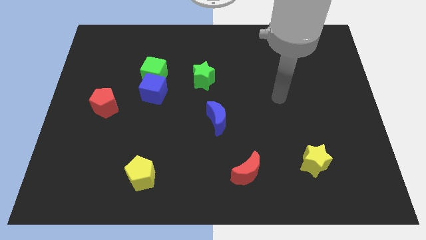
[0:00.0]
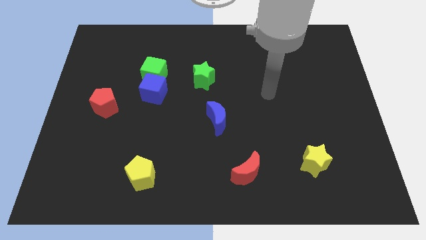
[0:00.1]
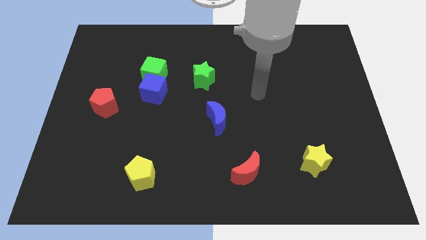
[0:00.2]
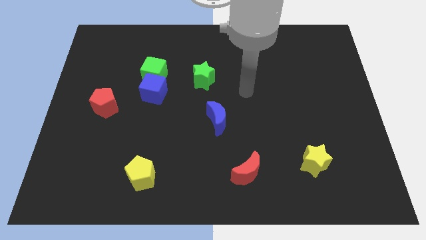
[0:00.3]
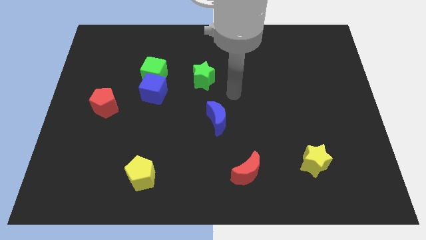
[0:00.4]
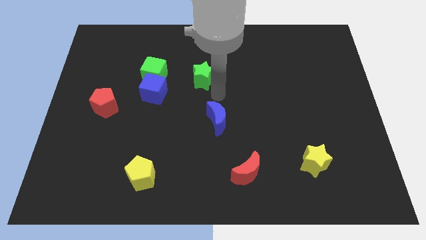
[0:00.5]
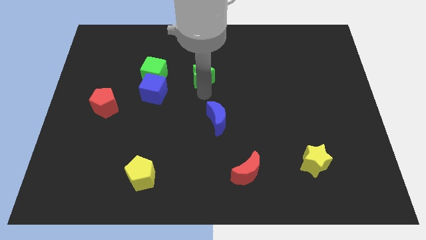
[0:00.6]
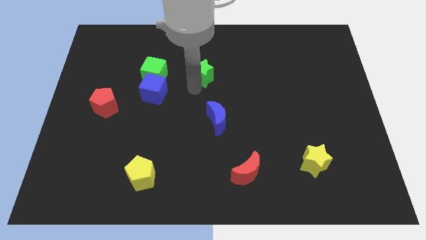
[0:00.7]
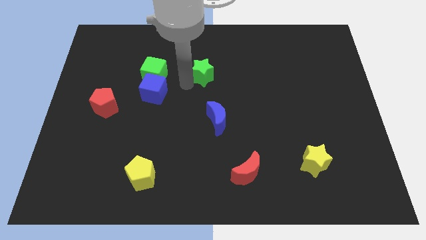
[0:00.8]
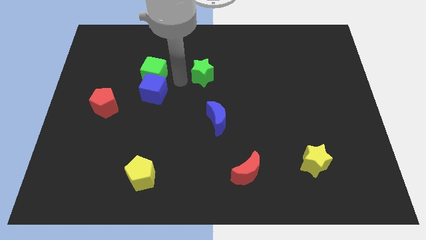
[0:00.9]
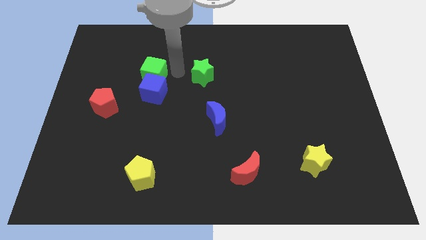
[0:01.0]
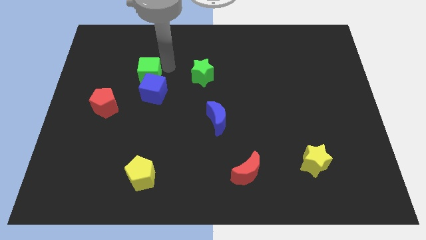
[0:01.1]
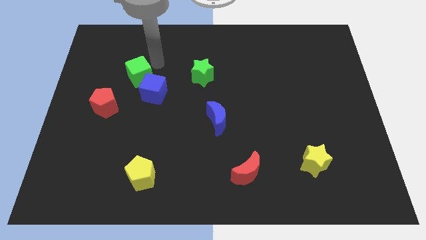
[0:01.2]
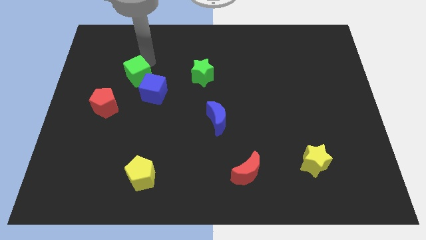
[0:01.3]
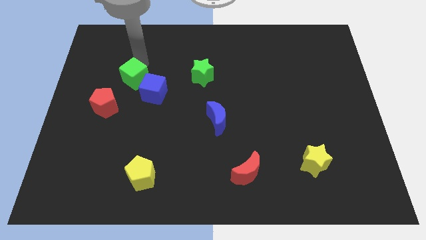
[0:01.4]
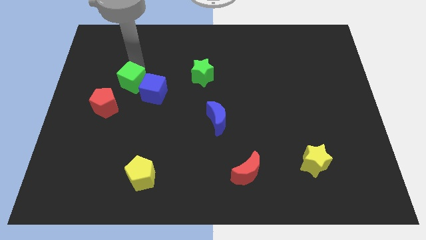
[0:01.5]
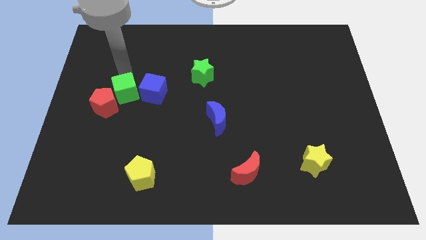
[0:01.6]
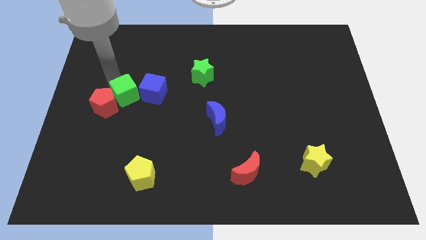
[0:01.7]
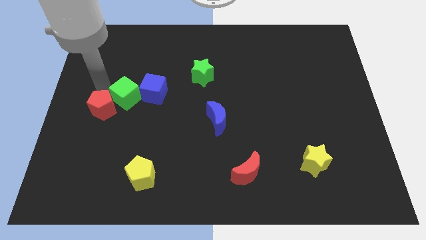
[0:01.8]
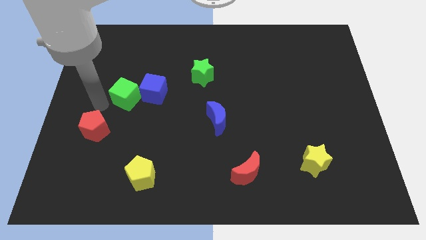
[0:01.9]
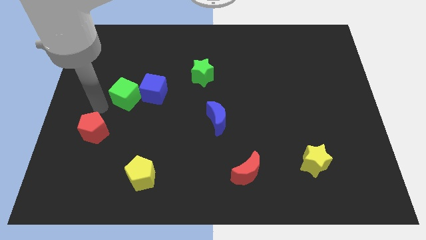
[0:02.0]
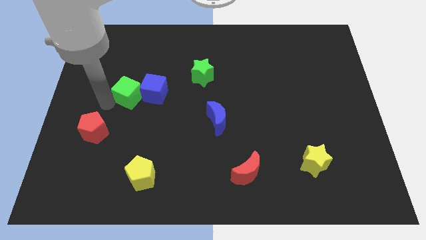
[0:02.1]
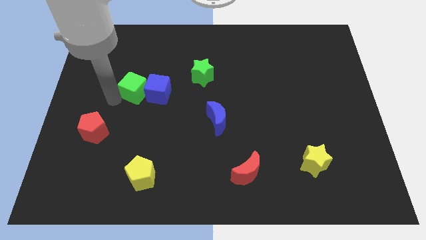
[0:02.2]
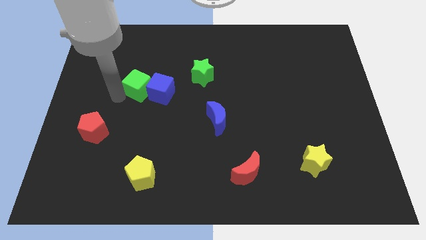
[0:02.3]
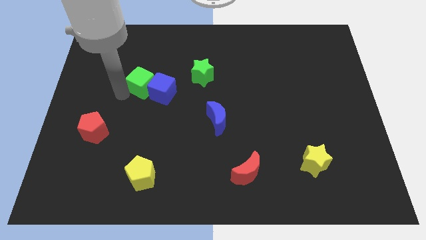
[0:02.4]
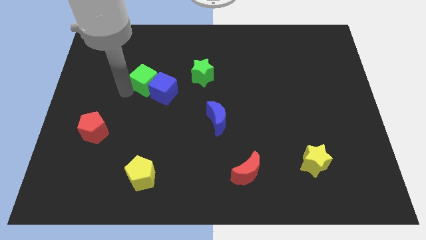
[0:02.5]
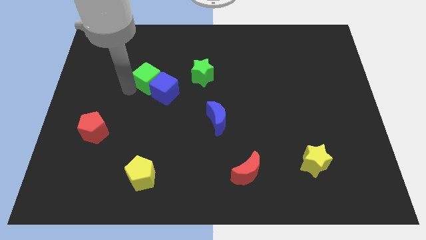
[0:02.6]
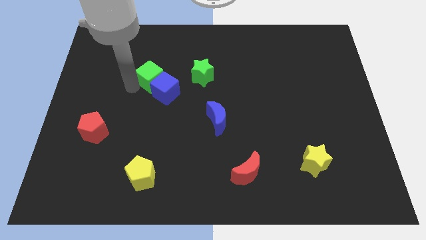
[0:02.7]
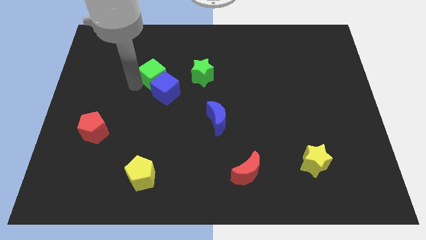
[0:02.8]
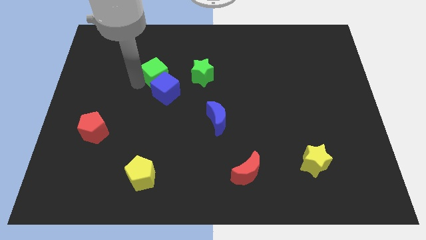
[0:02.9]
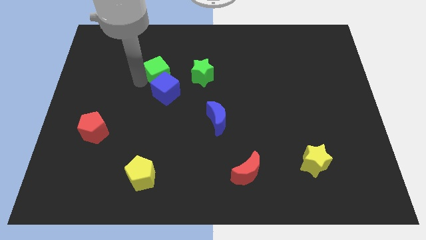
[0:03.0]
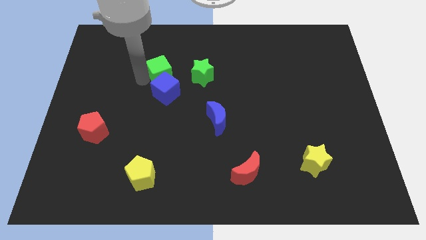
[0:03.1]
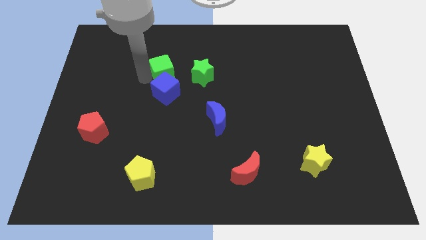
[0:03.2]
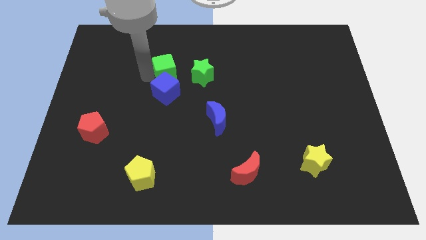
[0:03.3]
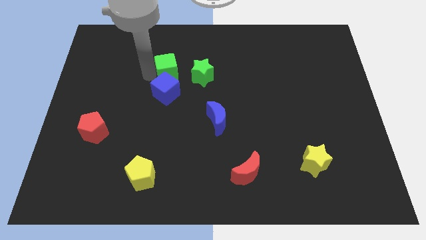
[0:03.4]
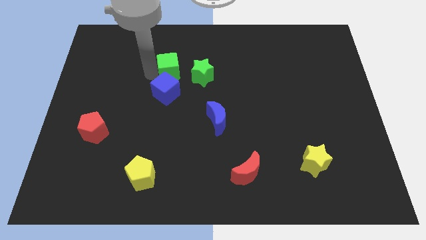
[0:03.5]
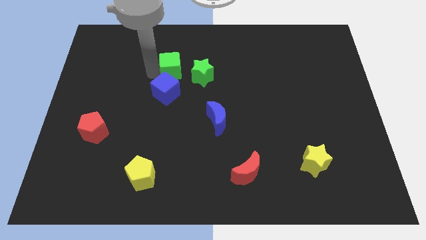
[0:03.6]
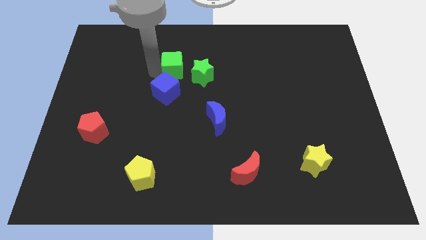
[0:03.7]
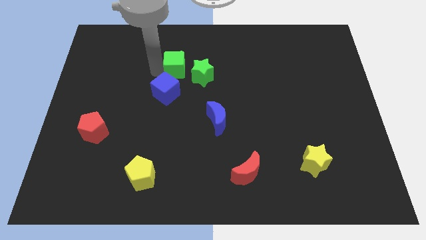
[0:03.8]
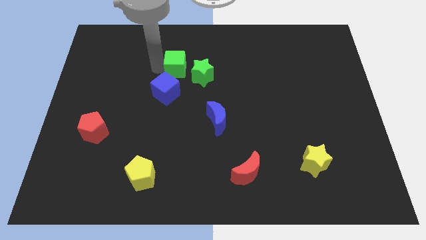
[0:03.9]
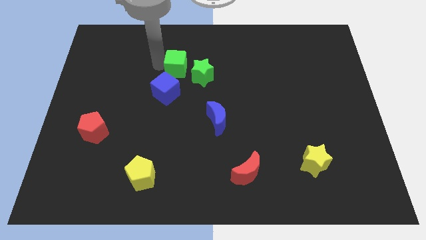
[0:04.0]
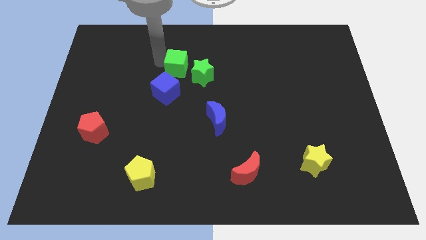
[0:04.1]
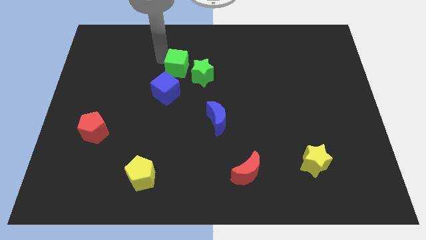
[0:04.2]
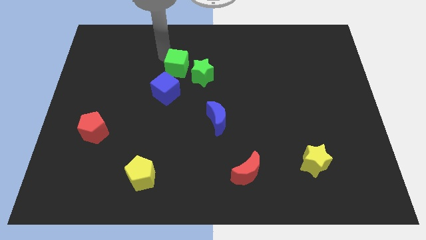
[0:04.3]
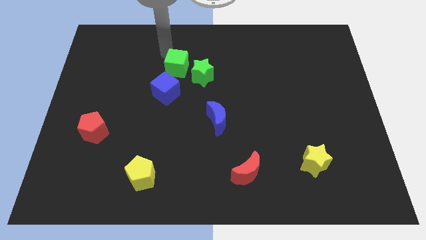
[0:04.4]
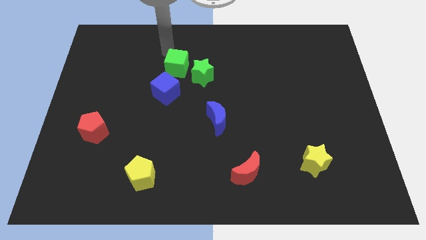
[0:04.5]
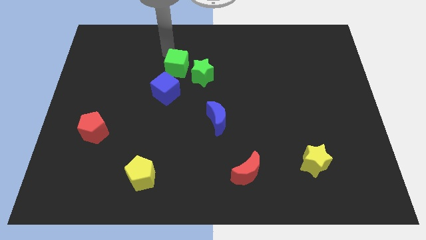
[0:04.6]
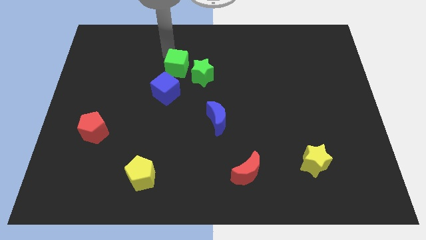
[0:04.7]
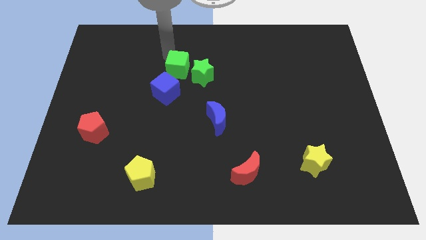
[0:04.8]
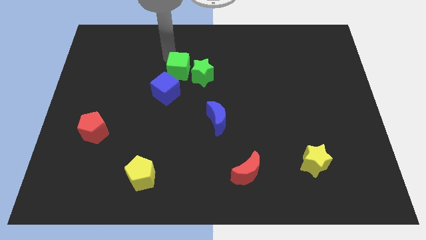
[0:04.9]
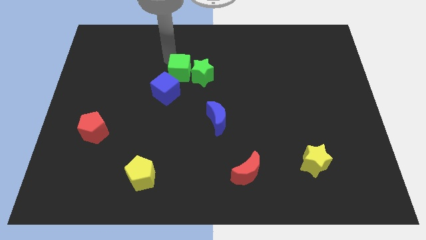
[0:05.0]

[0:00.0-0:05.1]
put the green cube towards the green star

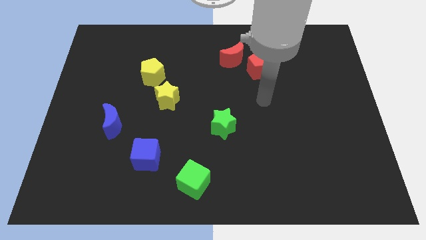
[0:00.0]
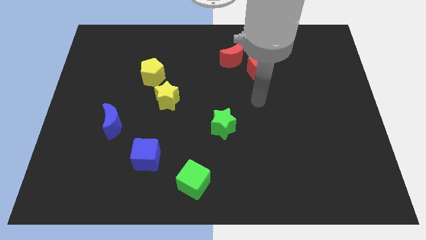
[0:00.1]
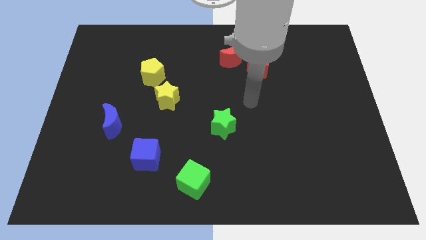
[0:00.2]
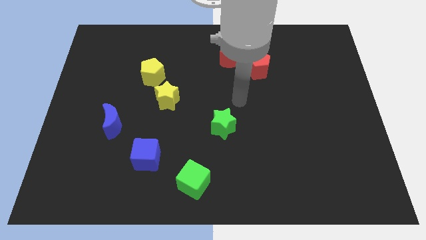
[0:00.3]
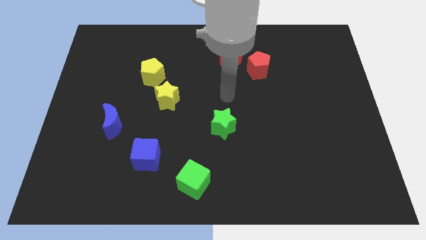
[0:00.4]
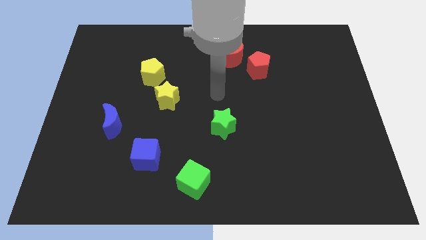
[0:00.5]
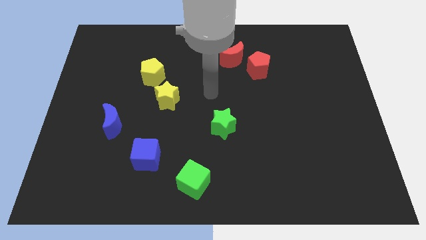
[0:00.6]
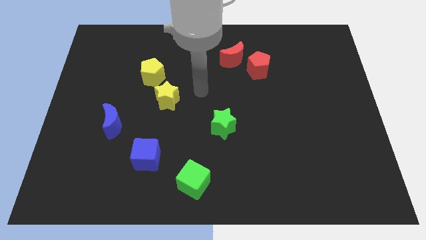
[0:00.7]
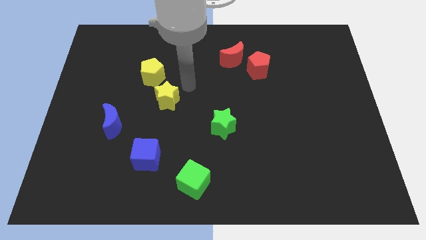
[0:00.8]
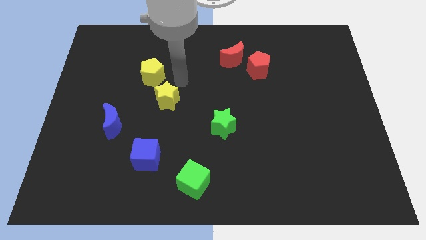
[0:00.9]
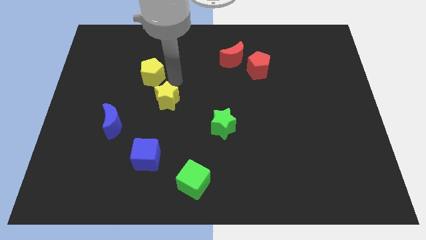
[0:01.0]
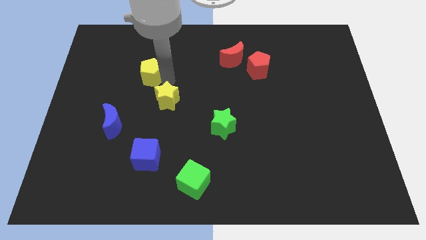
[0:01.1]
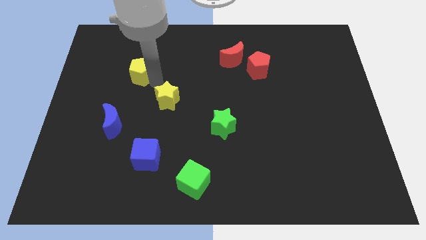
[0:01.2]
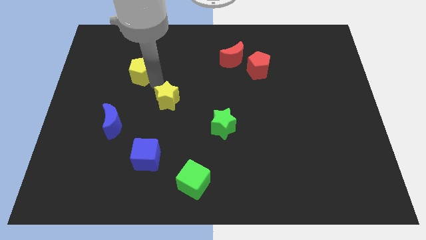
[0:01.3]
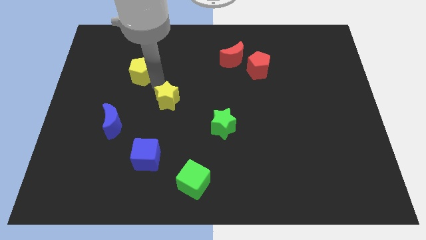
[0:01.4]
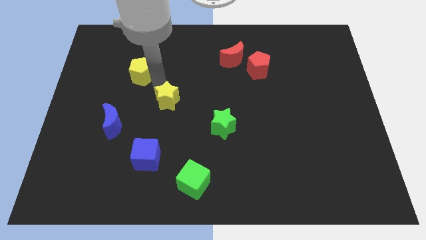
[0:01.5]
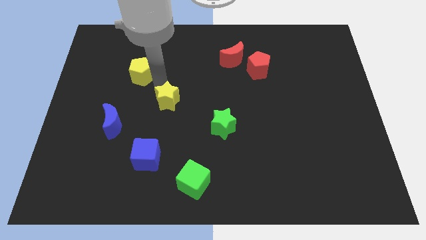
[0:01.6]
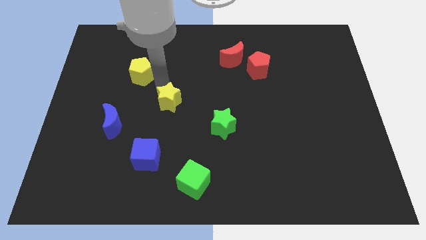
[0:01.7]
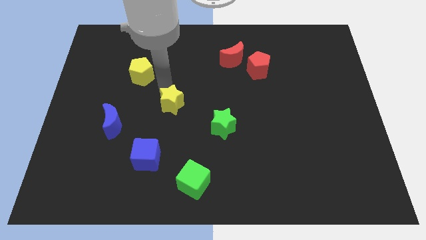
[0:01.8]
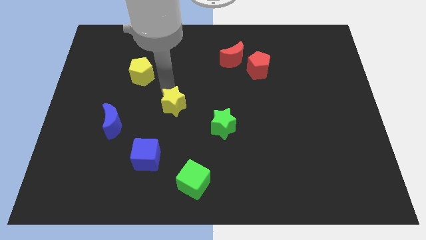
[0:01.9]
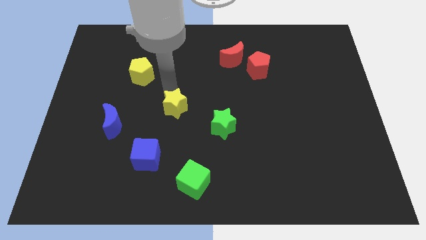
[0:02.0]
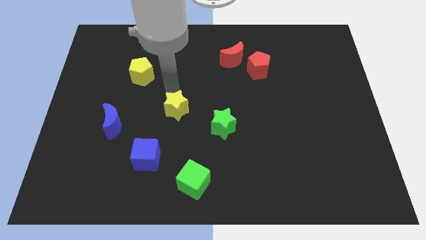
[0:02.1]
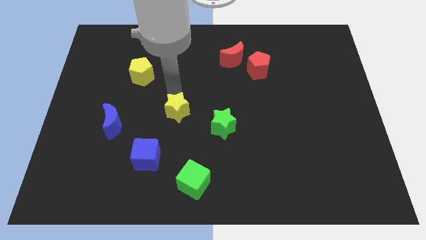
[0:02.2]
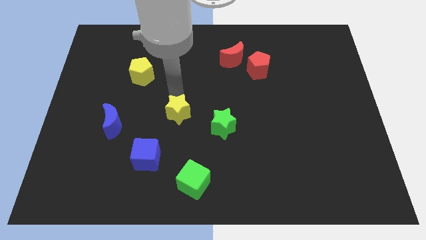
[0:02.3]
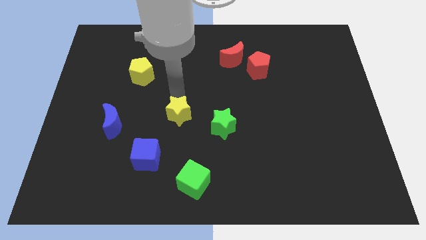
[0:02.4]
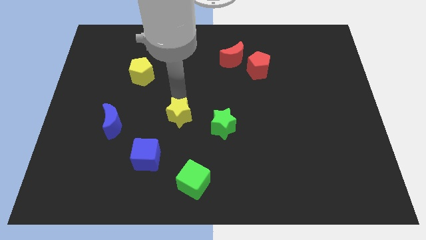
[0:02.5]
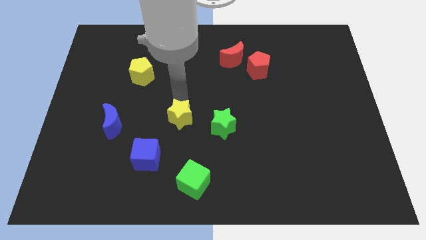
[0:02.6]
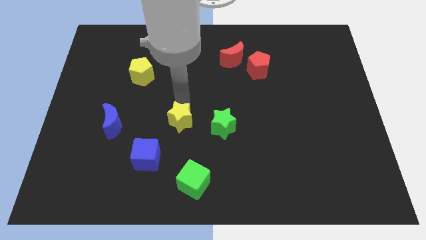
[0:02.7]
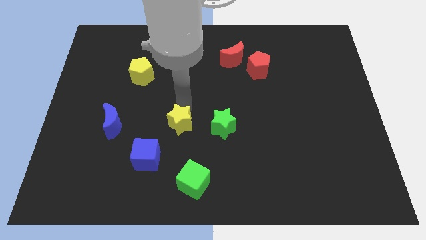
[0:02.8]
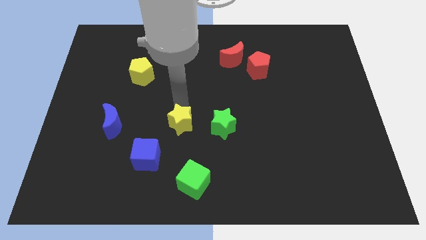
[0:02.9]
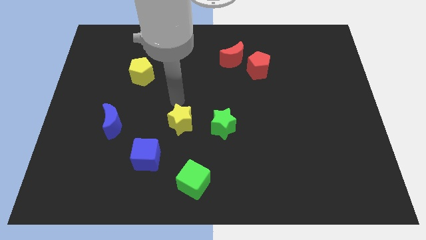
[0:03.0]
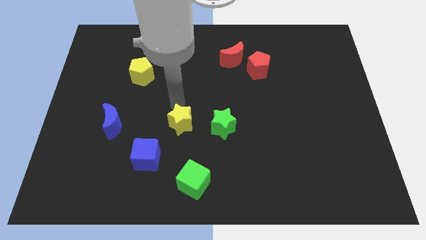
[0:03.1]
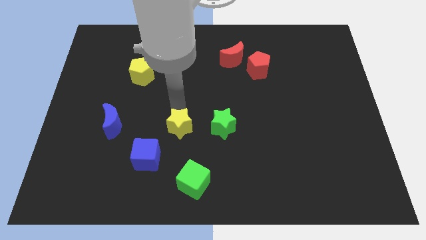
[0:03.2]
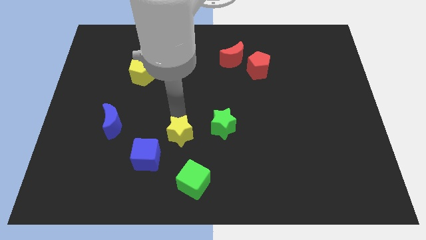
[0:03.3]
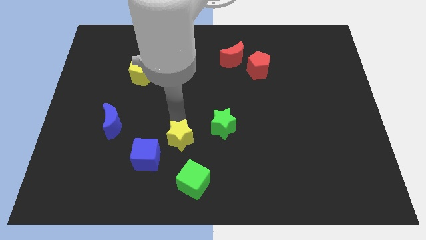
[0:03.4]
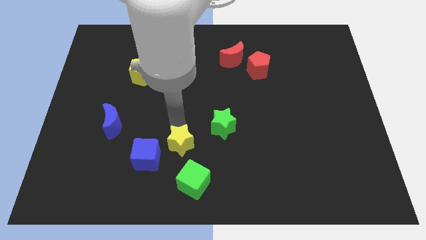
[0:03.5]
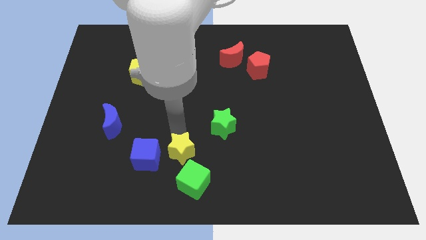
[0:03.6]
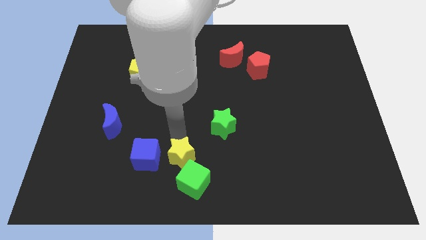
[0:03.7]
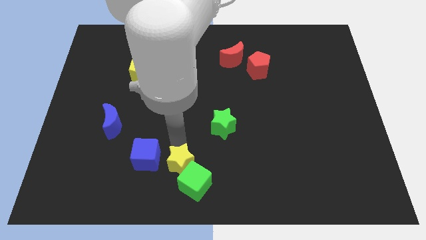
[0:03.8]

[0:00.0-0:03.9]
push the yellow star to the green cube
